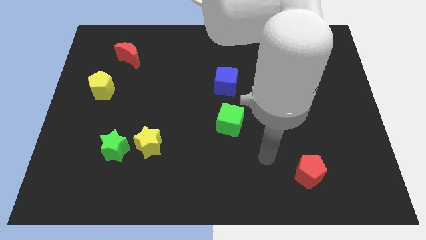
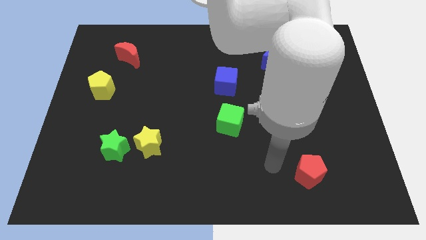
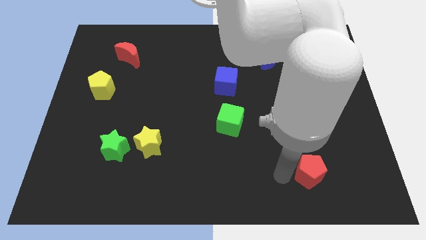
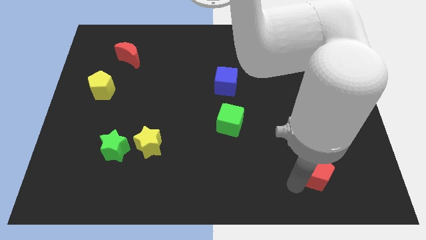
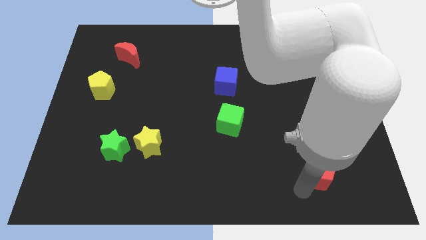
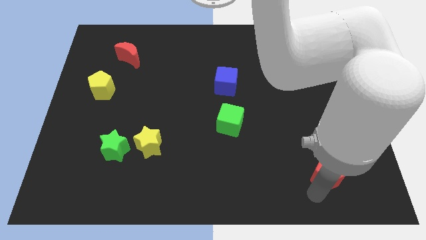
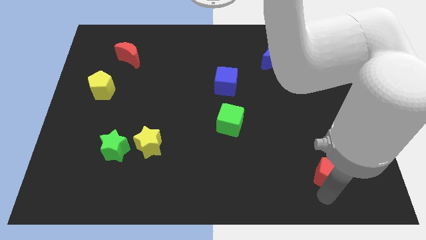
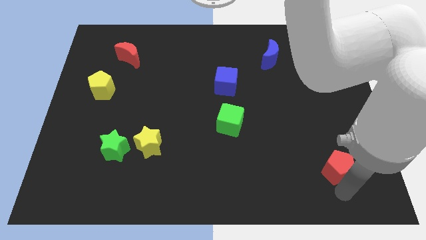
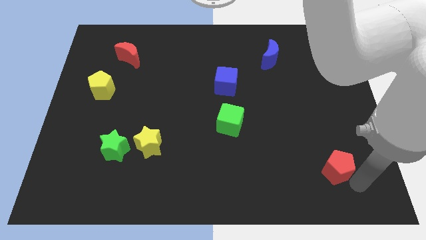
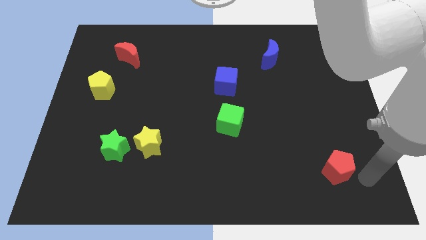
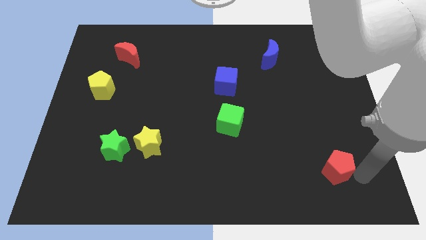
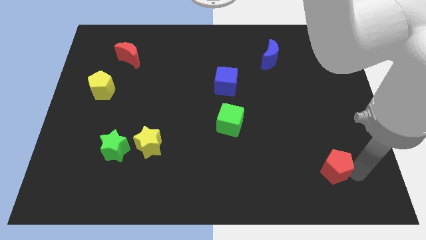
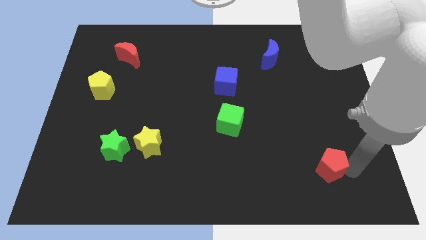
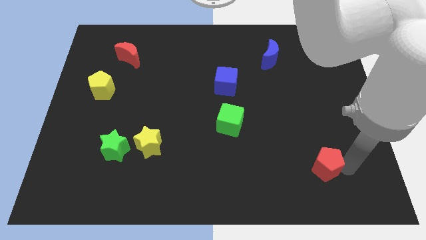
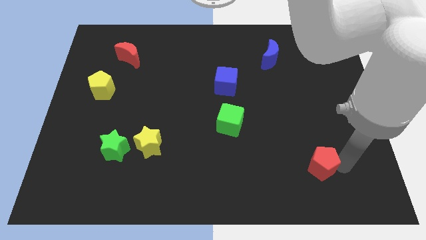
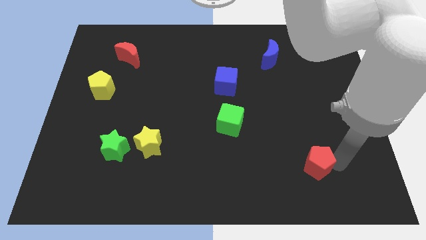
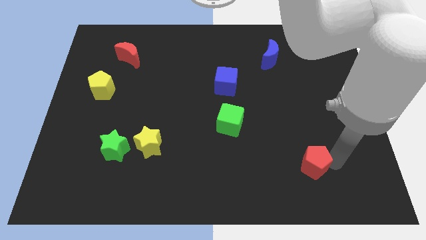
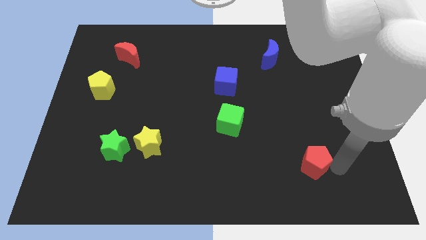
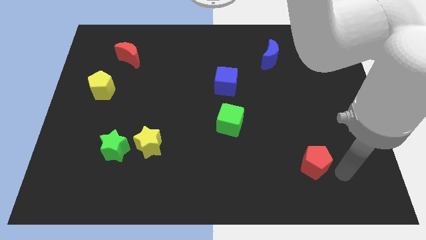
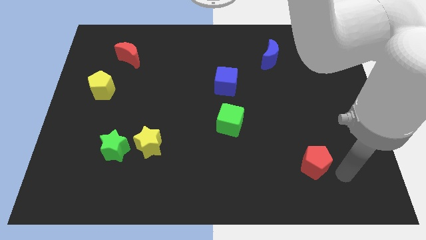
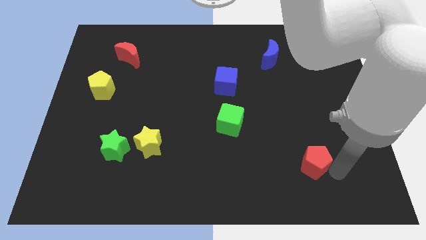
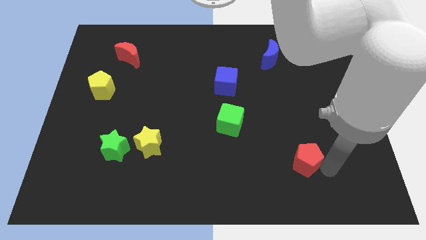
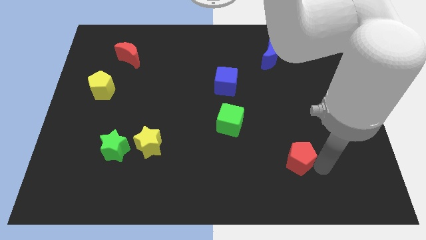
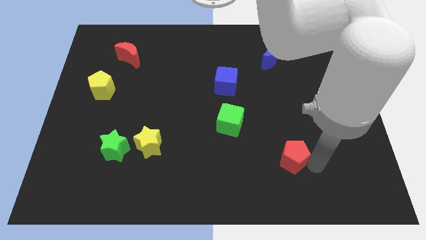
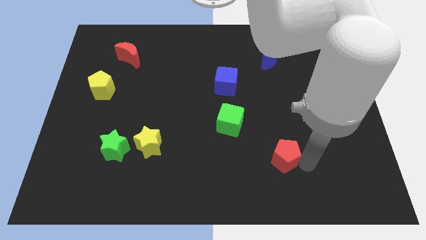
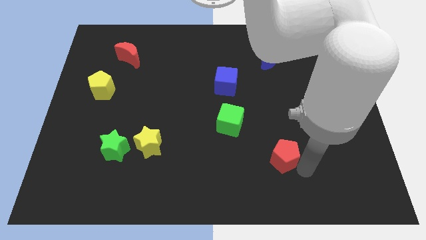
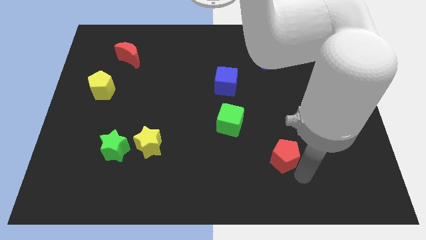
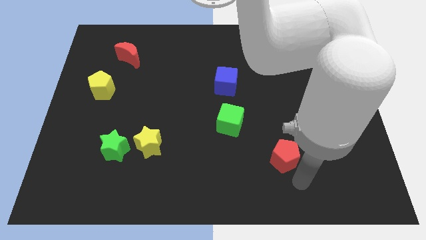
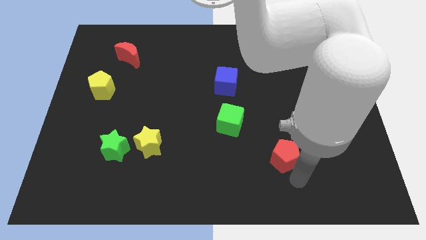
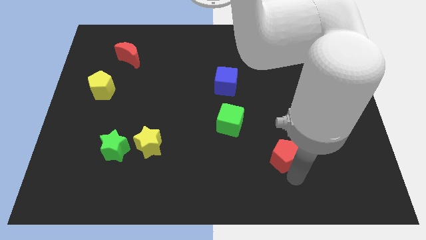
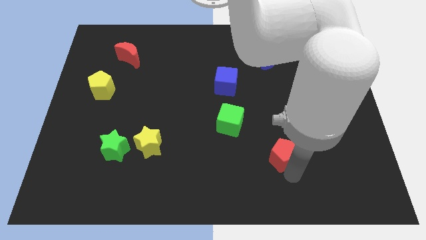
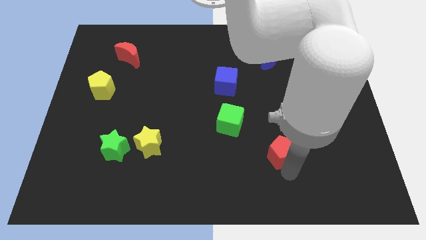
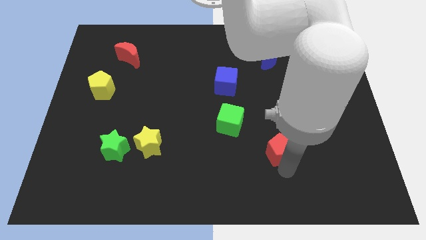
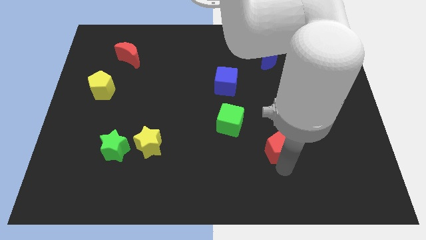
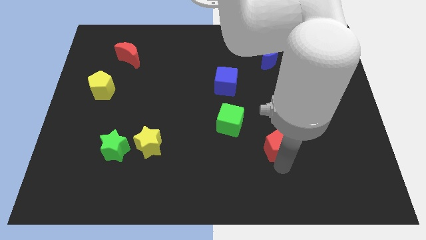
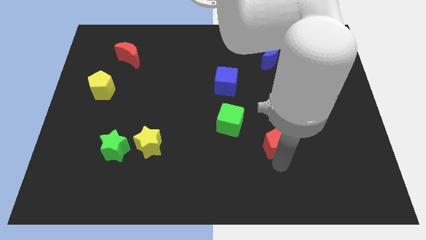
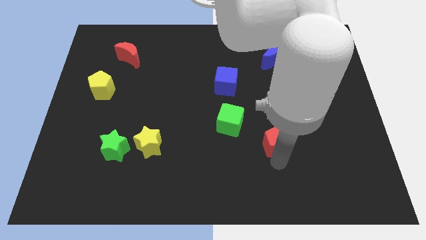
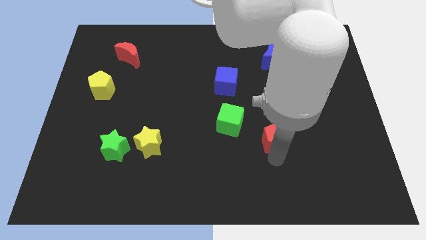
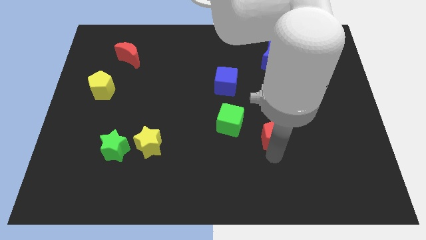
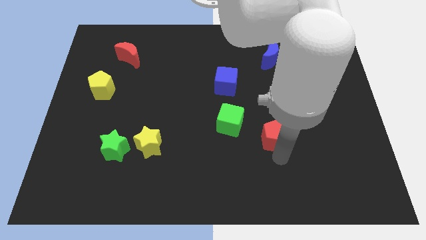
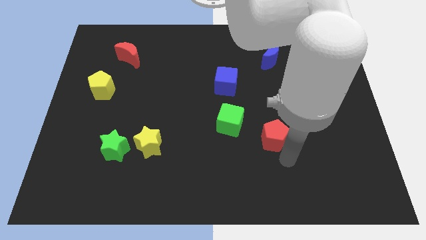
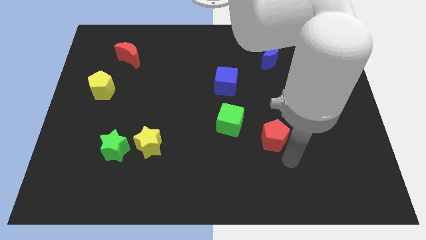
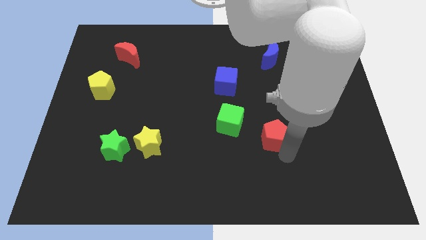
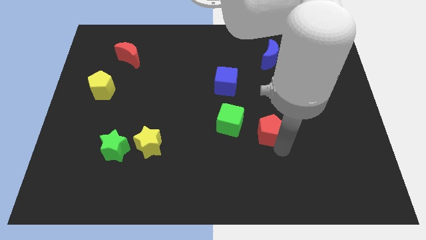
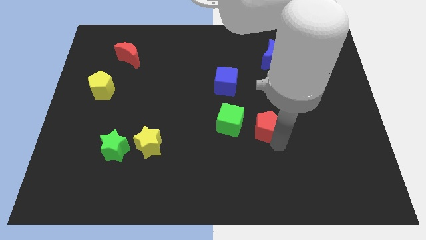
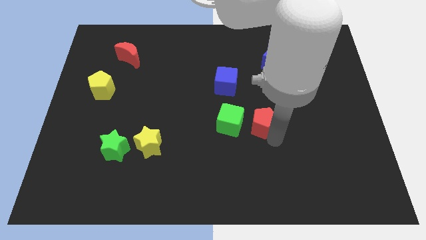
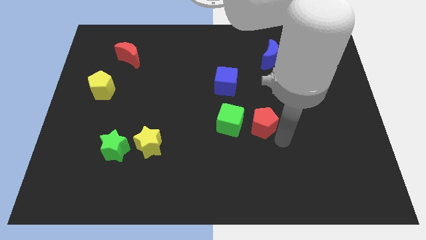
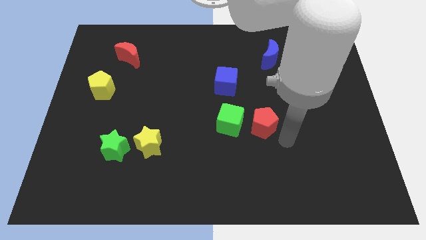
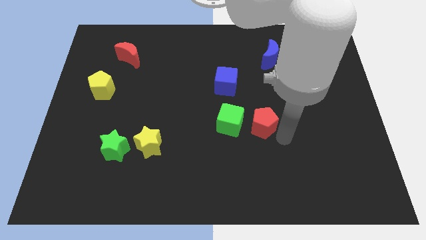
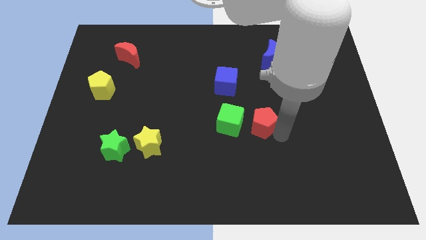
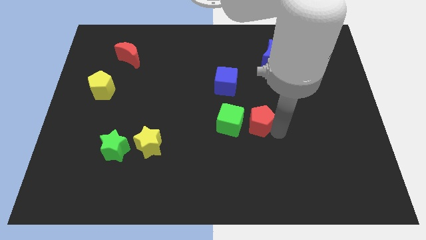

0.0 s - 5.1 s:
slide the red pentagon to the middle of the board
